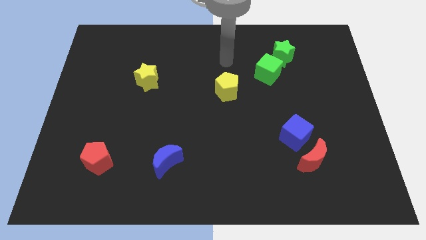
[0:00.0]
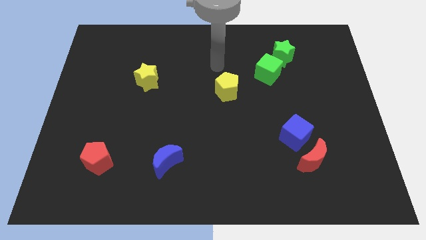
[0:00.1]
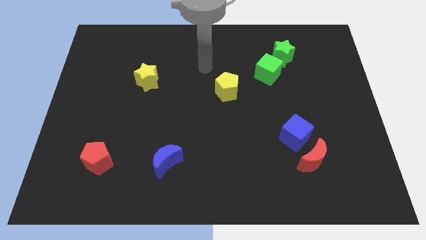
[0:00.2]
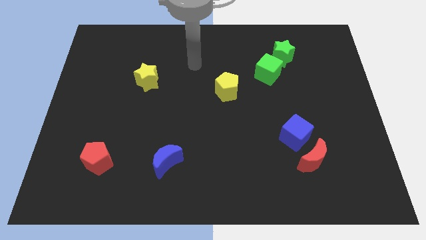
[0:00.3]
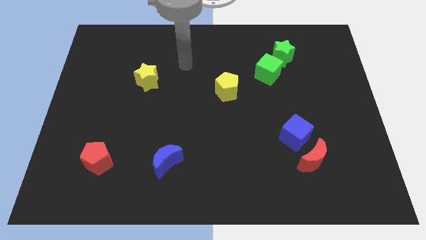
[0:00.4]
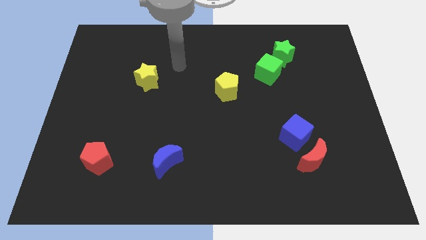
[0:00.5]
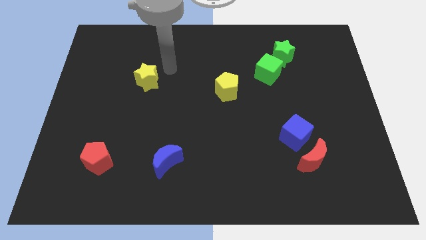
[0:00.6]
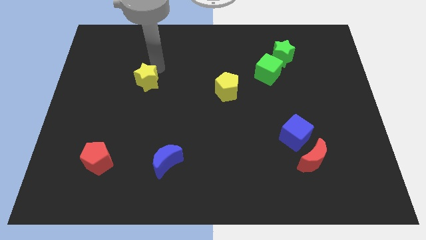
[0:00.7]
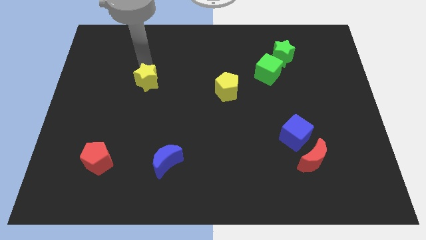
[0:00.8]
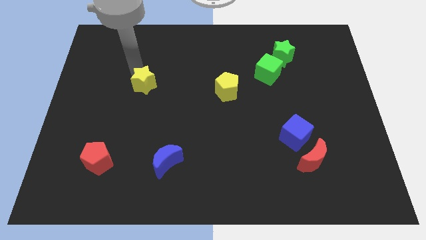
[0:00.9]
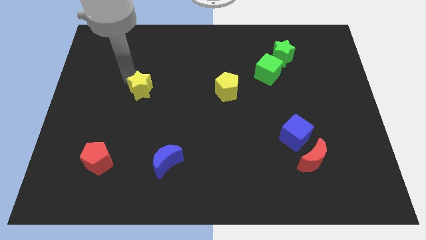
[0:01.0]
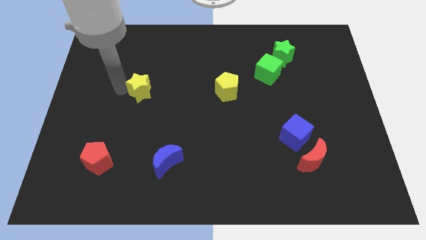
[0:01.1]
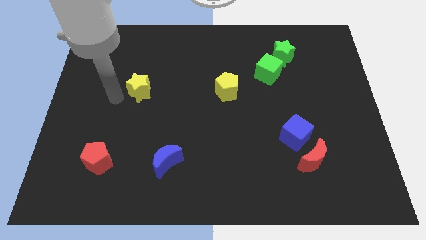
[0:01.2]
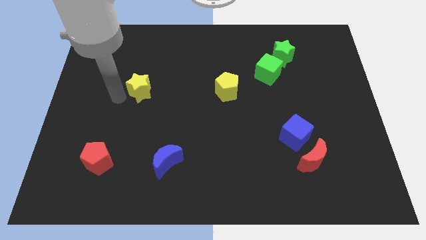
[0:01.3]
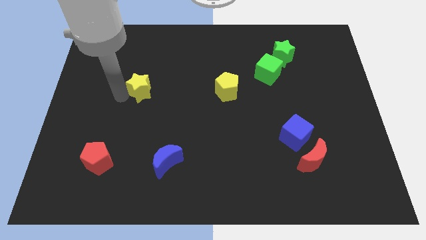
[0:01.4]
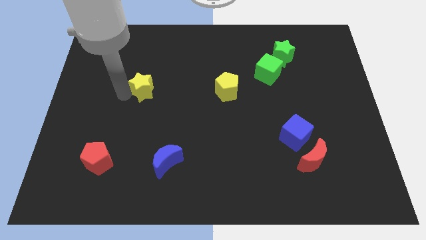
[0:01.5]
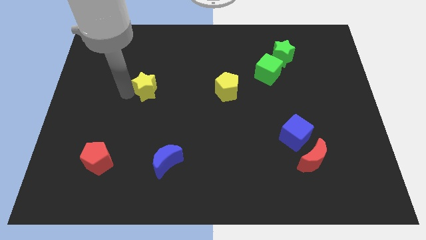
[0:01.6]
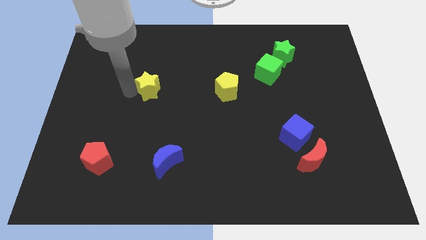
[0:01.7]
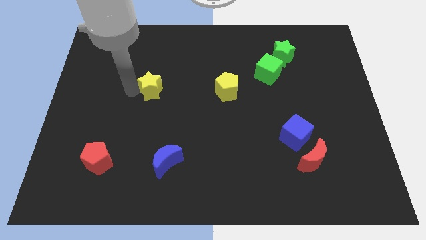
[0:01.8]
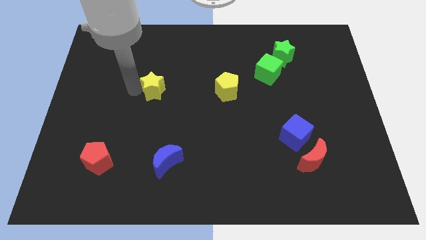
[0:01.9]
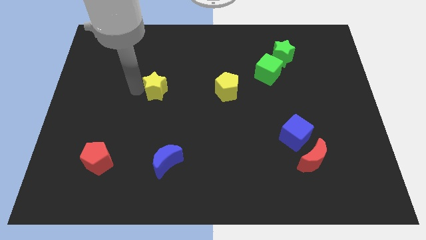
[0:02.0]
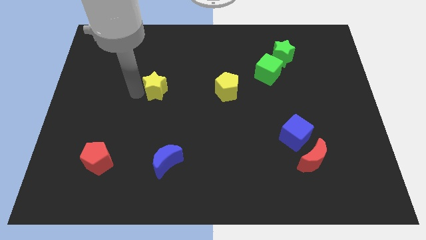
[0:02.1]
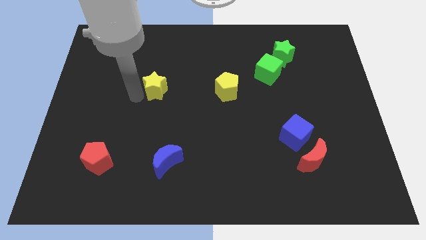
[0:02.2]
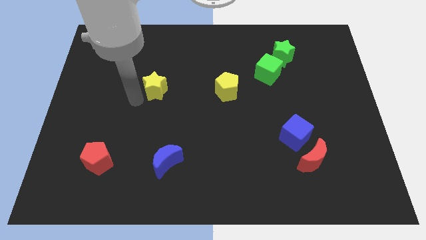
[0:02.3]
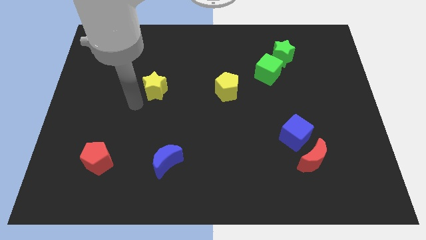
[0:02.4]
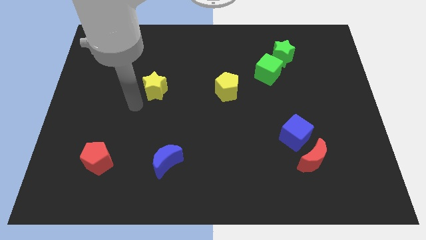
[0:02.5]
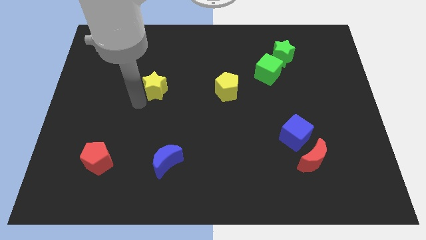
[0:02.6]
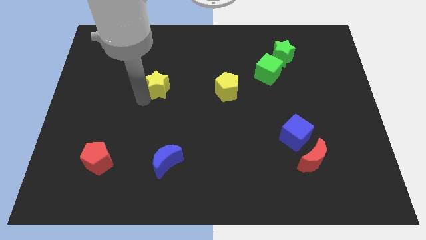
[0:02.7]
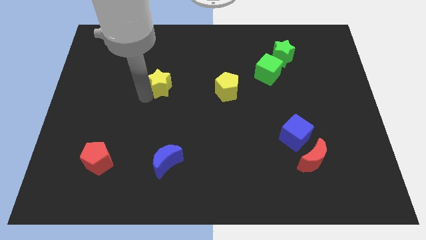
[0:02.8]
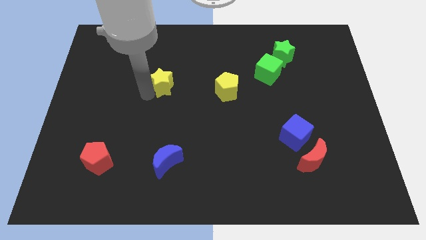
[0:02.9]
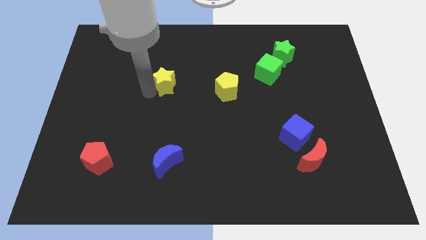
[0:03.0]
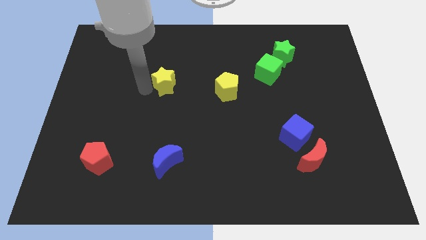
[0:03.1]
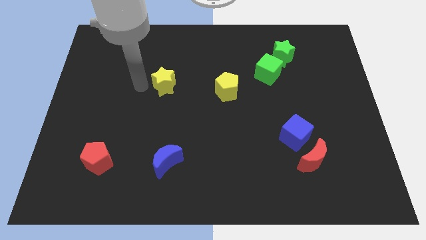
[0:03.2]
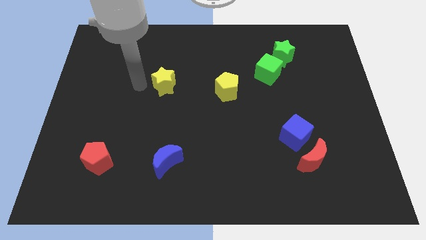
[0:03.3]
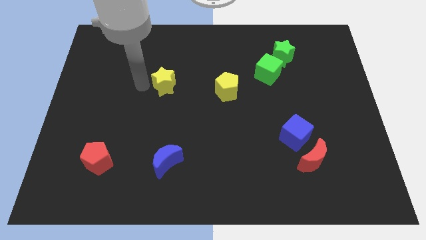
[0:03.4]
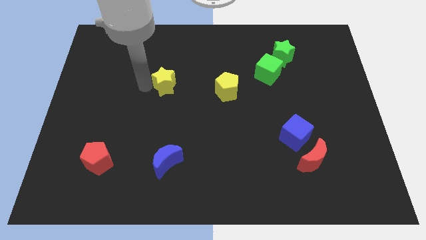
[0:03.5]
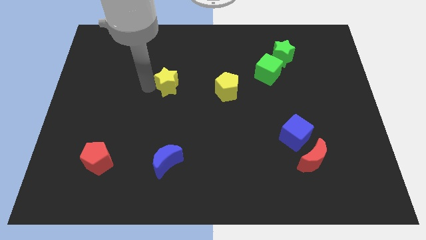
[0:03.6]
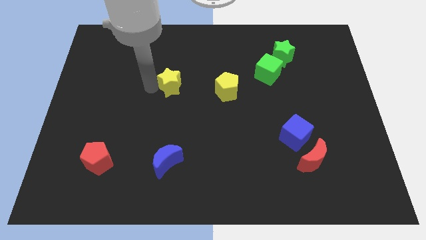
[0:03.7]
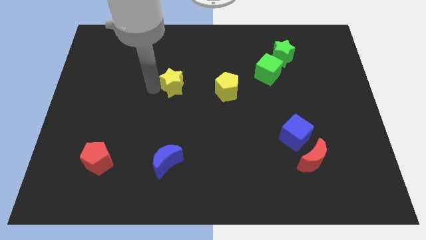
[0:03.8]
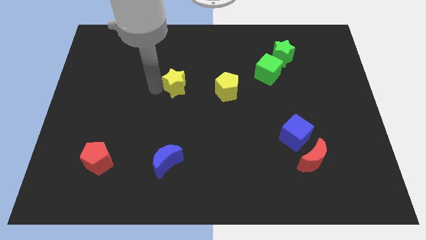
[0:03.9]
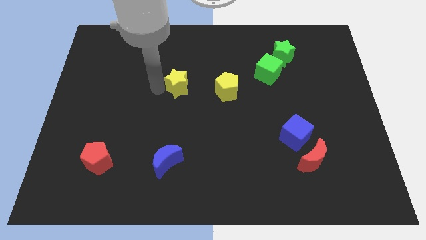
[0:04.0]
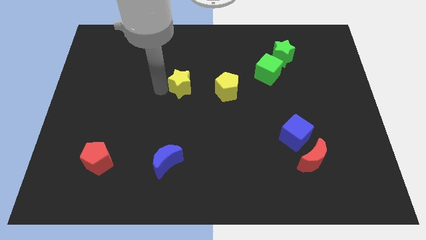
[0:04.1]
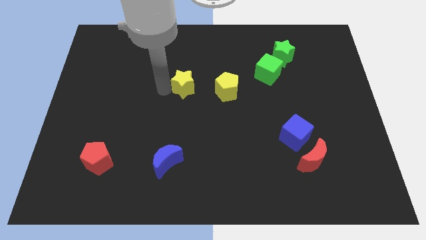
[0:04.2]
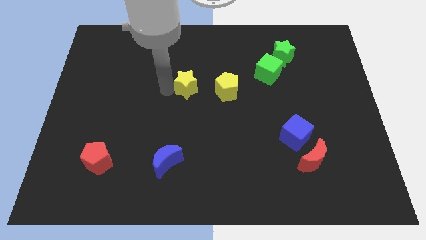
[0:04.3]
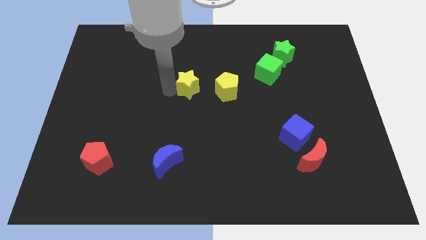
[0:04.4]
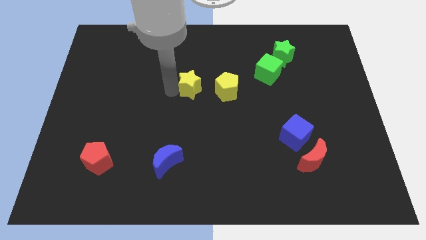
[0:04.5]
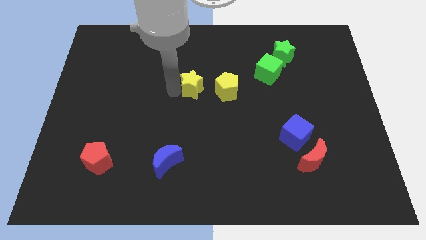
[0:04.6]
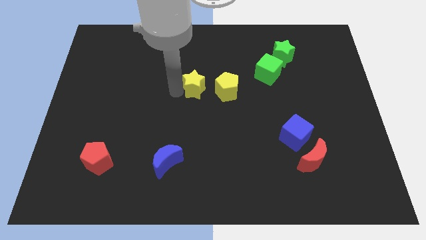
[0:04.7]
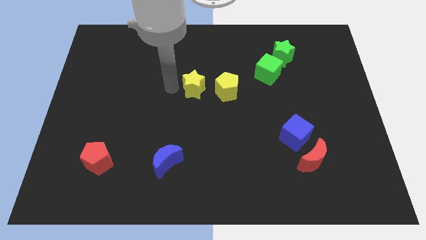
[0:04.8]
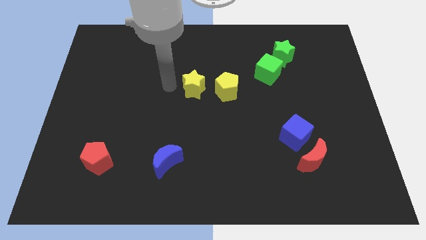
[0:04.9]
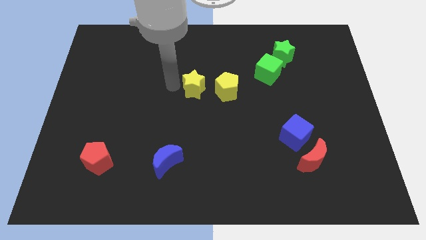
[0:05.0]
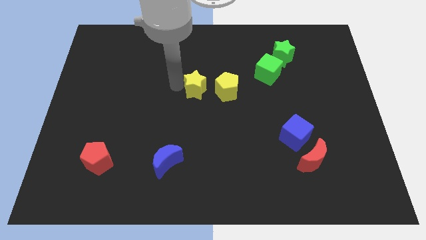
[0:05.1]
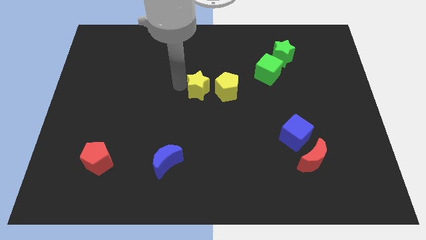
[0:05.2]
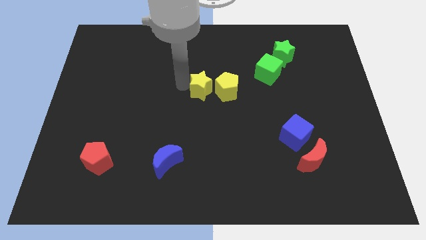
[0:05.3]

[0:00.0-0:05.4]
slide the yellow star to the yellow pentagon

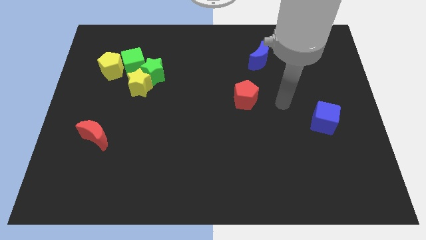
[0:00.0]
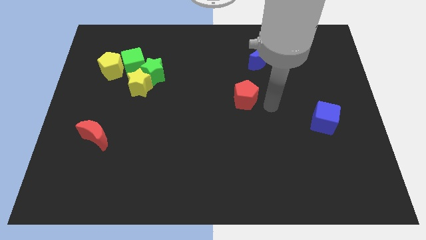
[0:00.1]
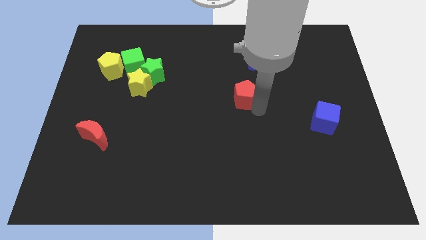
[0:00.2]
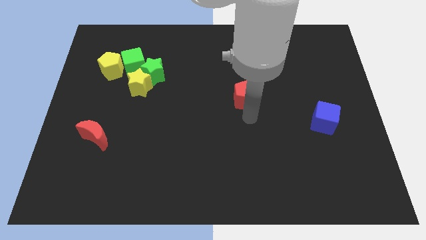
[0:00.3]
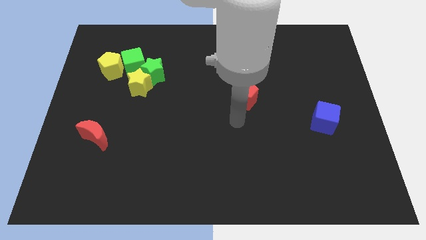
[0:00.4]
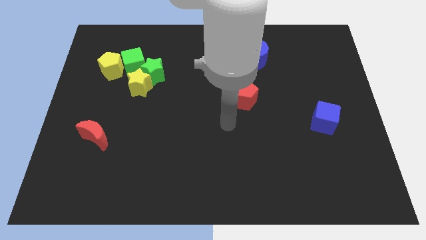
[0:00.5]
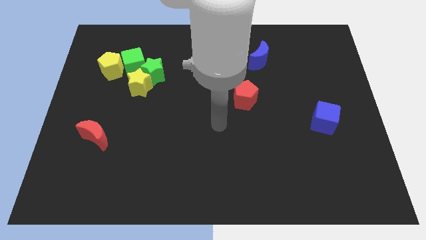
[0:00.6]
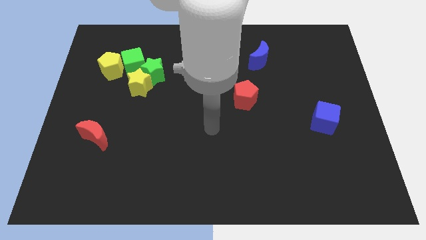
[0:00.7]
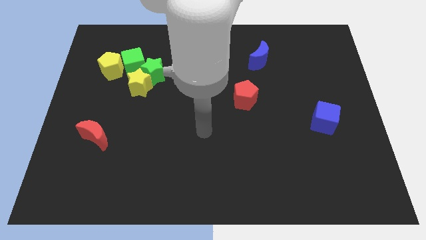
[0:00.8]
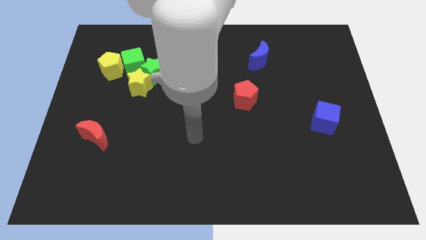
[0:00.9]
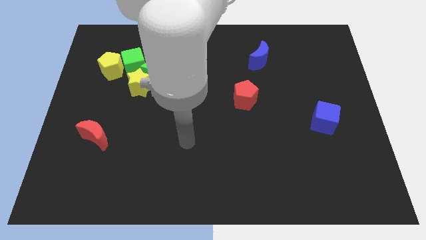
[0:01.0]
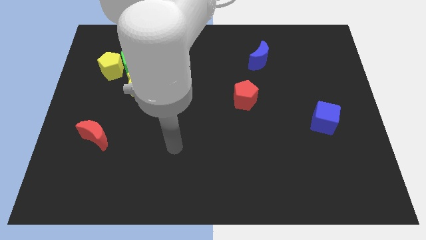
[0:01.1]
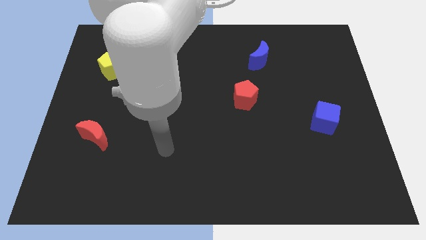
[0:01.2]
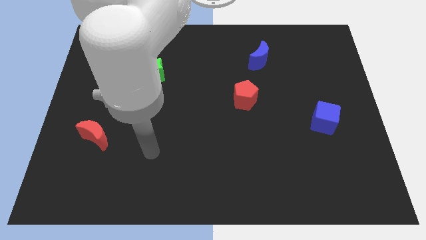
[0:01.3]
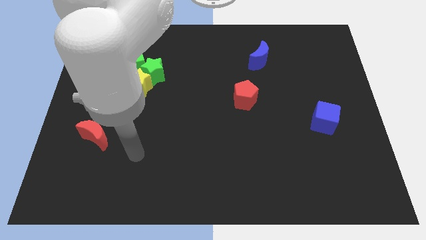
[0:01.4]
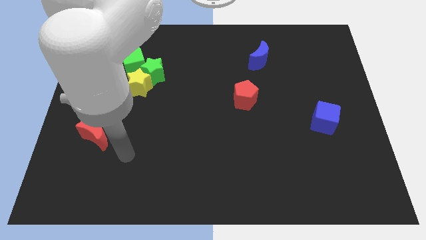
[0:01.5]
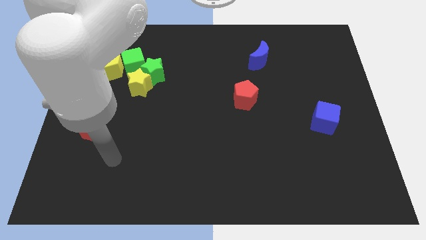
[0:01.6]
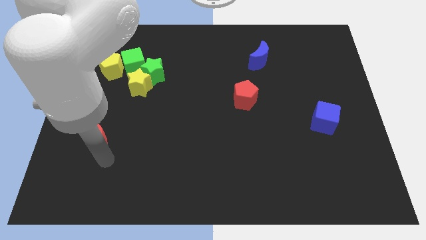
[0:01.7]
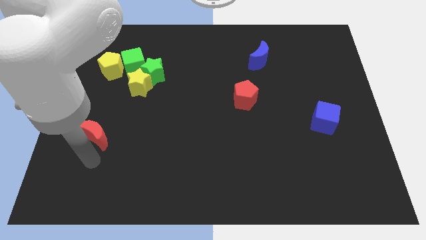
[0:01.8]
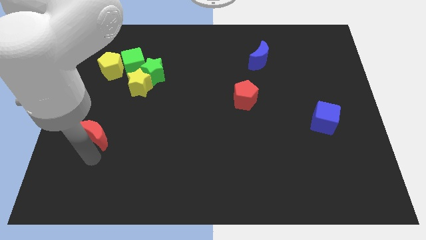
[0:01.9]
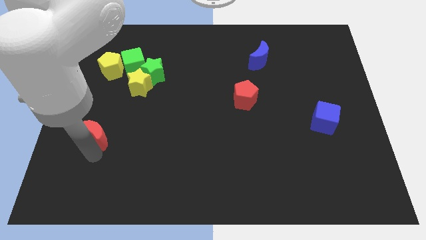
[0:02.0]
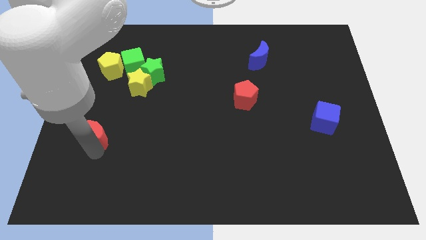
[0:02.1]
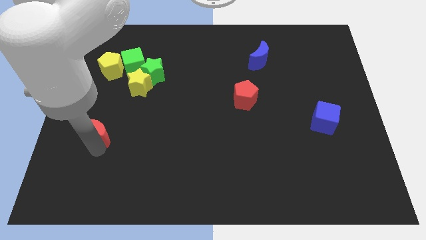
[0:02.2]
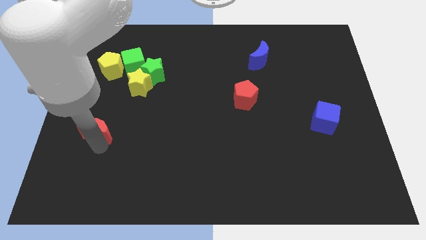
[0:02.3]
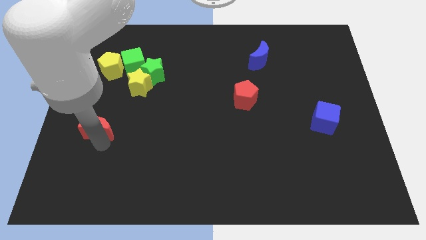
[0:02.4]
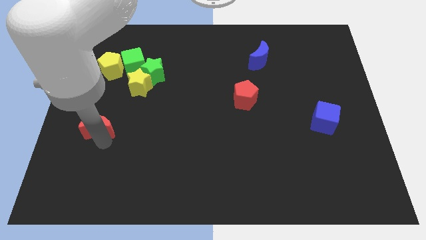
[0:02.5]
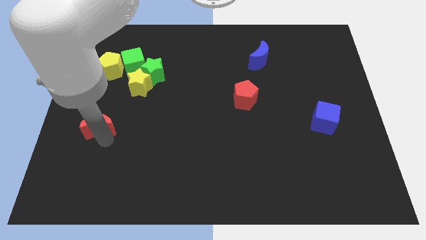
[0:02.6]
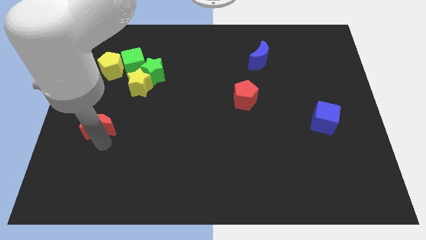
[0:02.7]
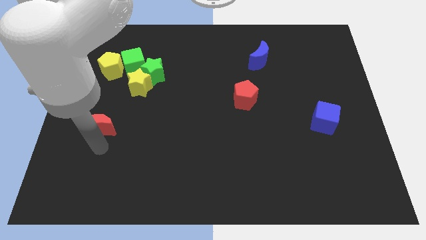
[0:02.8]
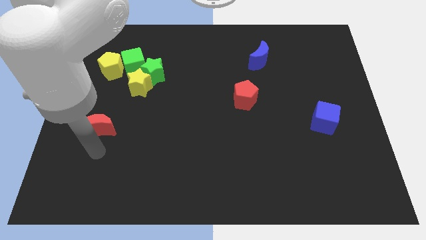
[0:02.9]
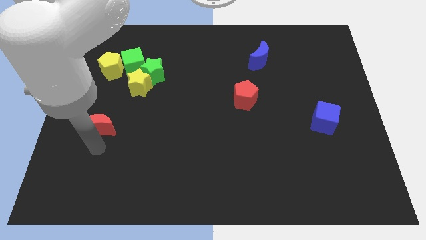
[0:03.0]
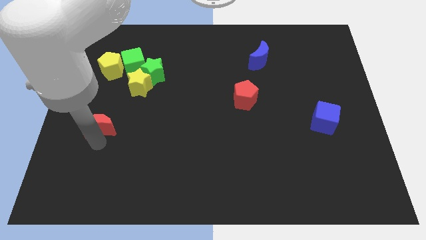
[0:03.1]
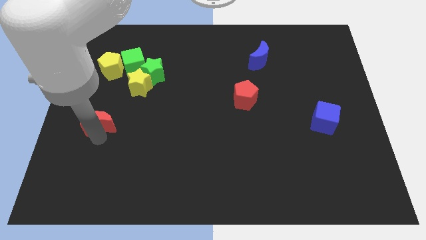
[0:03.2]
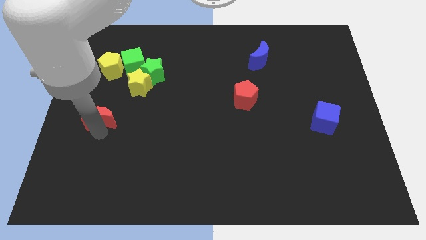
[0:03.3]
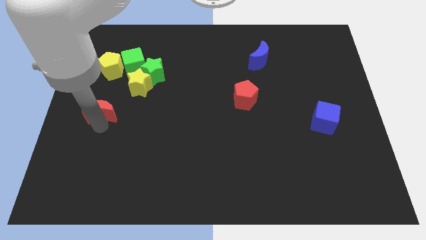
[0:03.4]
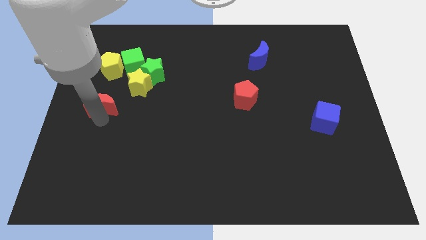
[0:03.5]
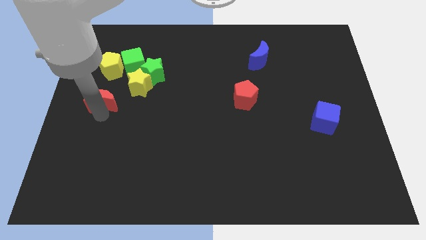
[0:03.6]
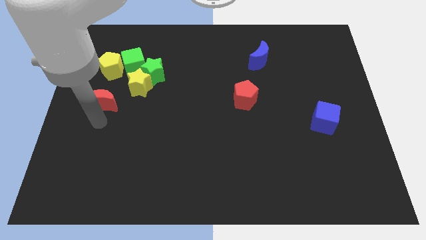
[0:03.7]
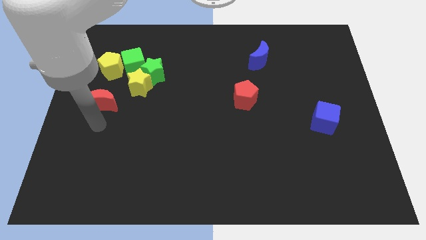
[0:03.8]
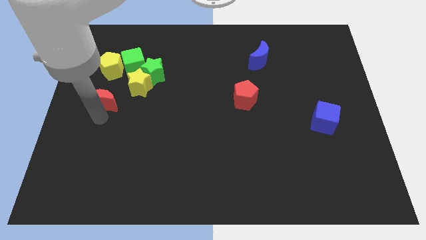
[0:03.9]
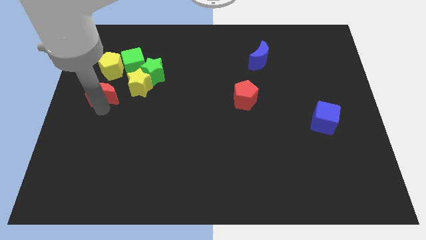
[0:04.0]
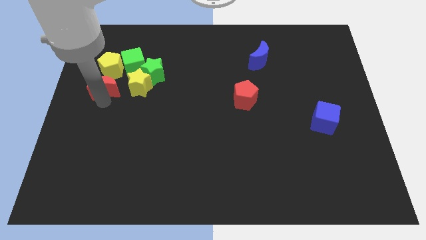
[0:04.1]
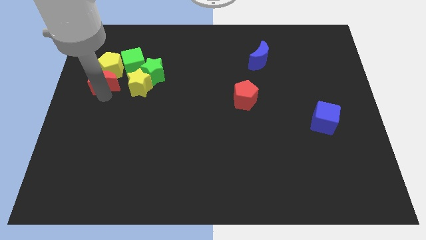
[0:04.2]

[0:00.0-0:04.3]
push the red moon to the yellow pentagon
